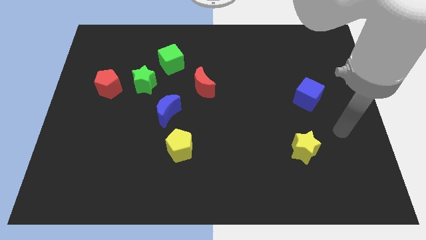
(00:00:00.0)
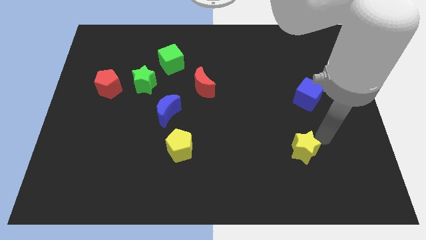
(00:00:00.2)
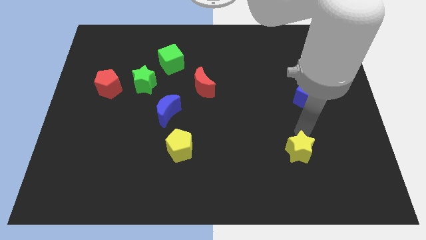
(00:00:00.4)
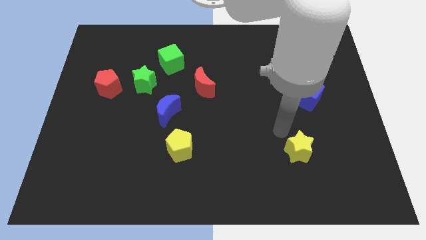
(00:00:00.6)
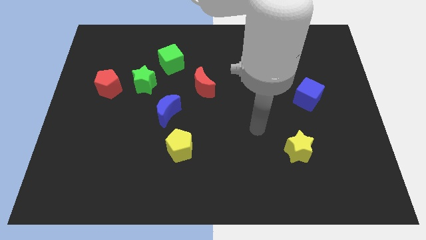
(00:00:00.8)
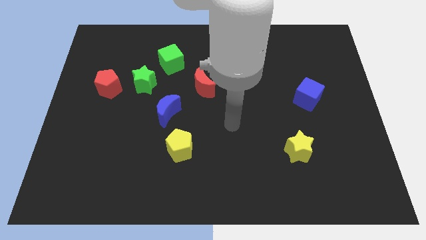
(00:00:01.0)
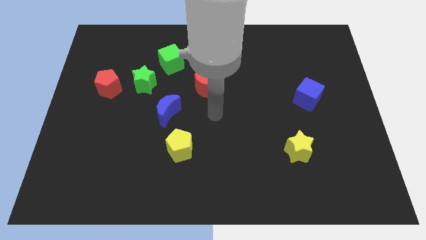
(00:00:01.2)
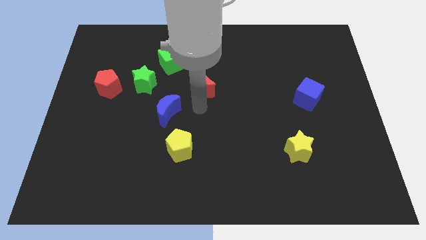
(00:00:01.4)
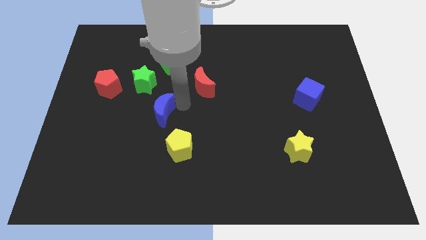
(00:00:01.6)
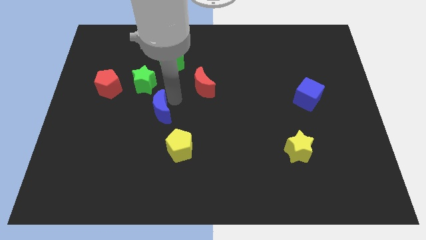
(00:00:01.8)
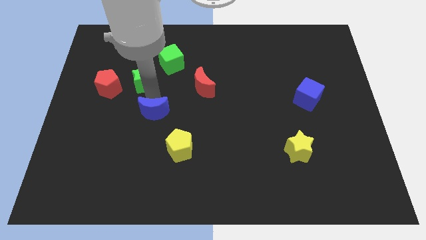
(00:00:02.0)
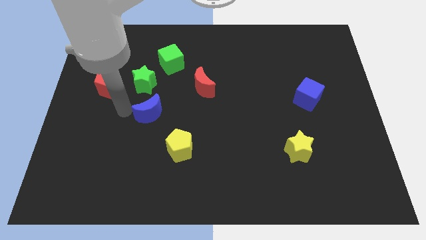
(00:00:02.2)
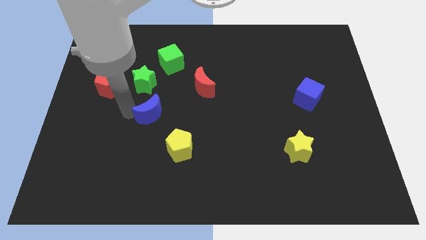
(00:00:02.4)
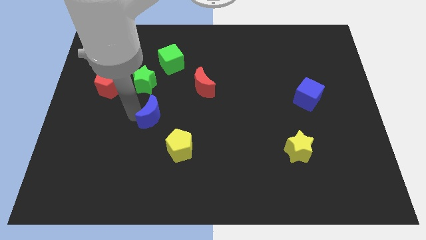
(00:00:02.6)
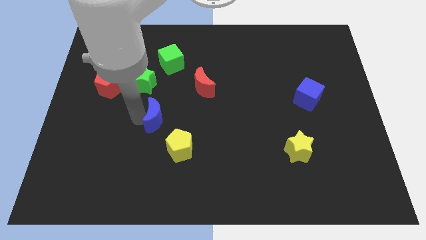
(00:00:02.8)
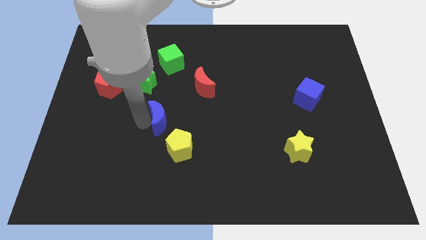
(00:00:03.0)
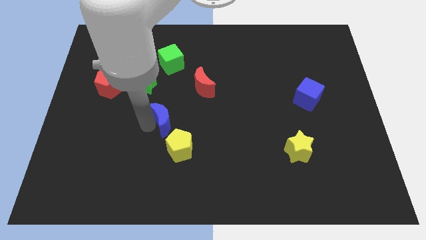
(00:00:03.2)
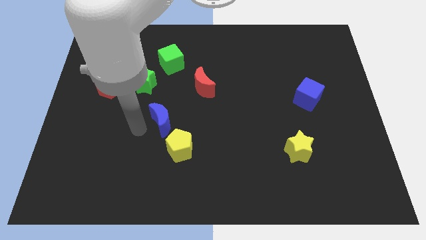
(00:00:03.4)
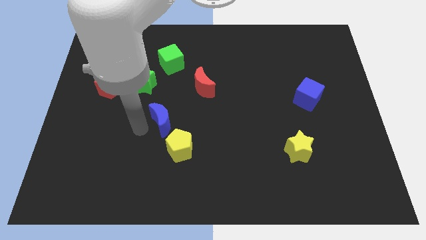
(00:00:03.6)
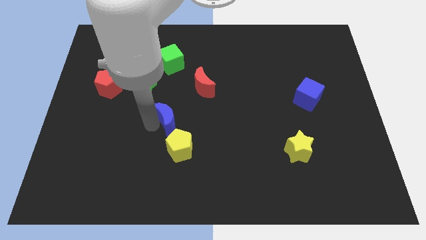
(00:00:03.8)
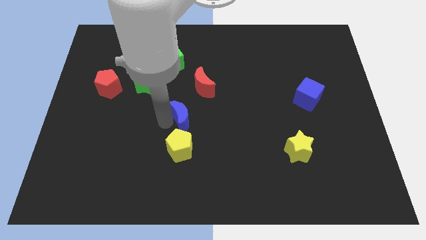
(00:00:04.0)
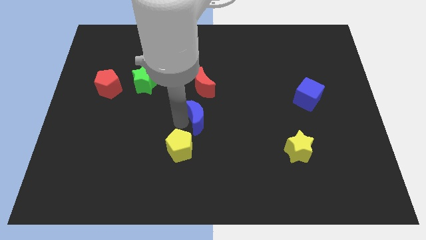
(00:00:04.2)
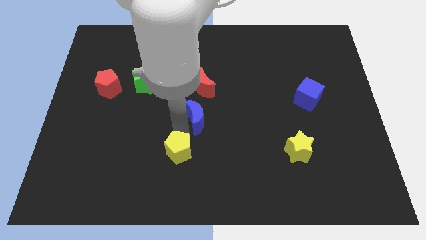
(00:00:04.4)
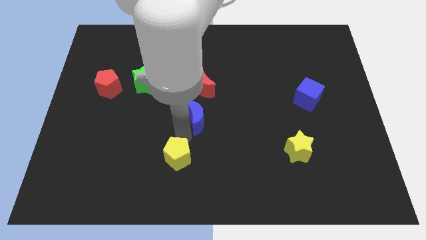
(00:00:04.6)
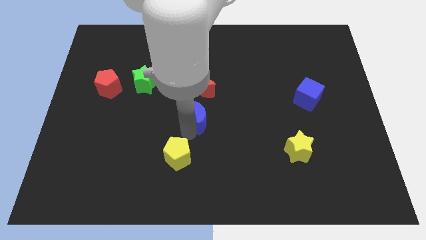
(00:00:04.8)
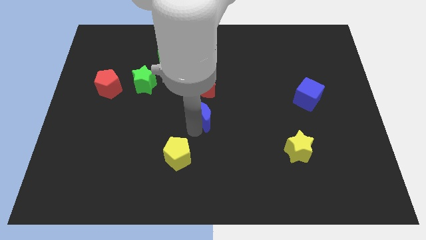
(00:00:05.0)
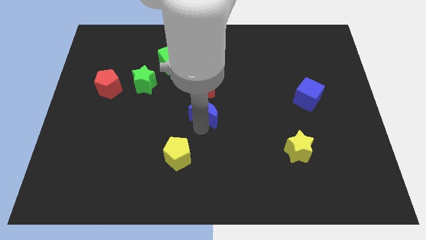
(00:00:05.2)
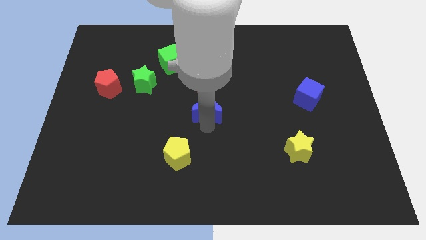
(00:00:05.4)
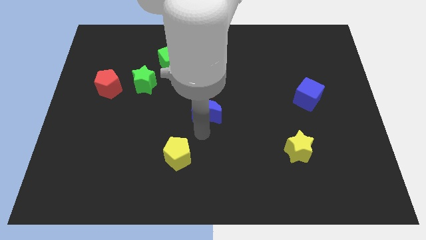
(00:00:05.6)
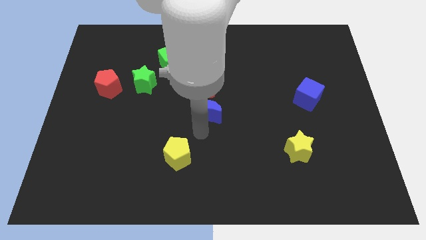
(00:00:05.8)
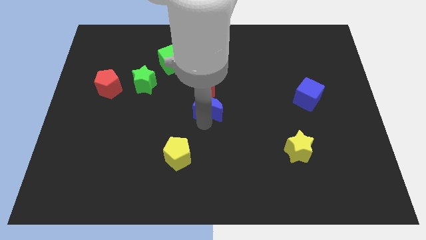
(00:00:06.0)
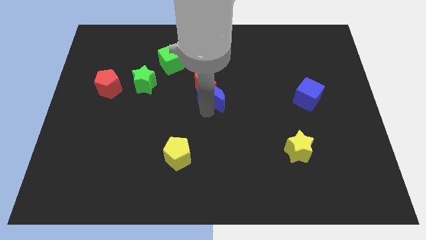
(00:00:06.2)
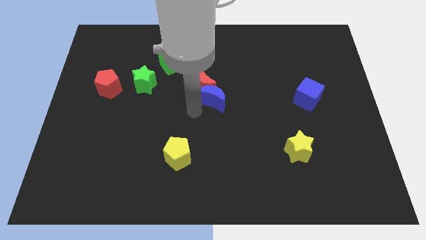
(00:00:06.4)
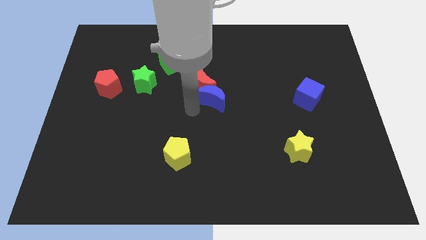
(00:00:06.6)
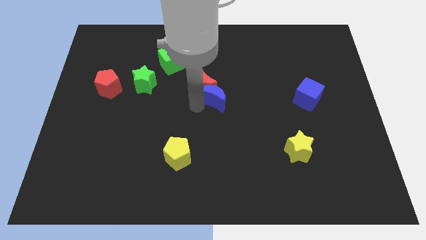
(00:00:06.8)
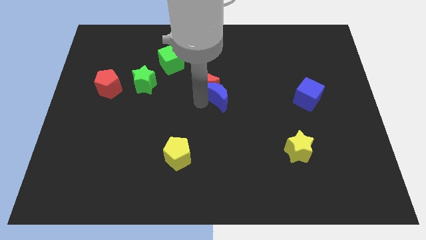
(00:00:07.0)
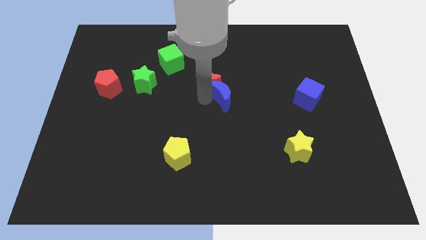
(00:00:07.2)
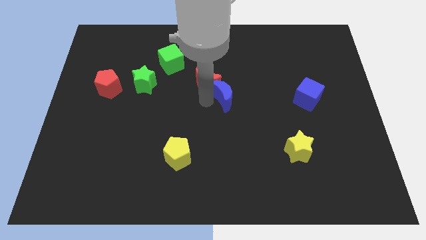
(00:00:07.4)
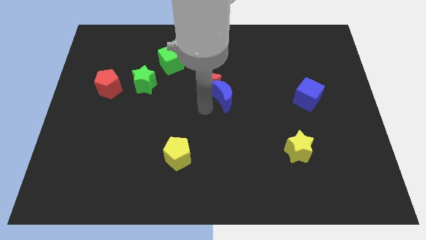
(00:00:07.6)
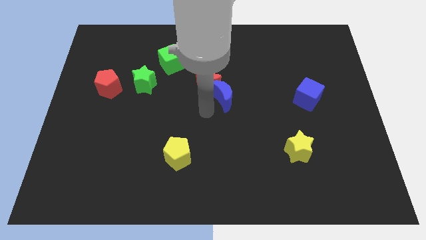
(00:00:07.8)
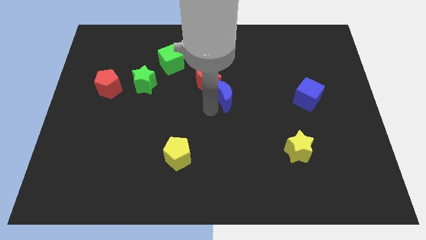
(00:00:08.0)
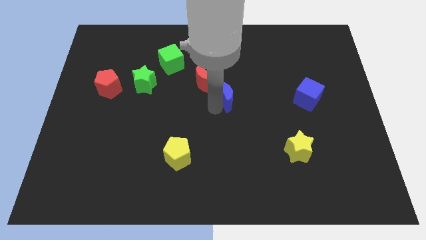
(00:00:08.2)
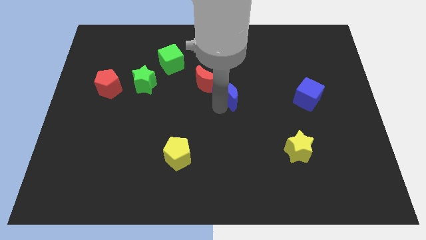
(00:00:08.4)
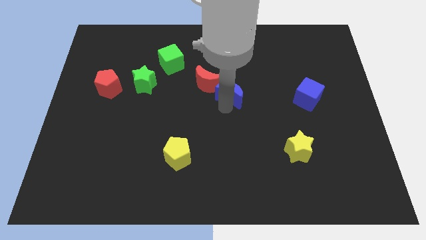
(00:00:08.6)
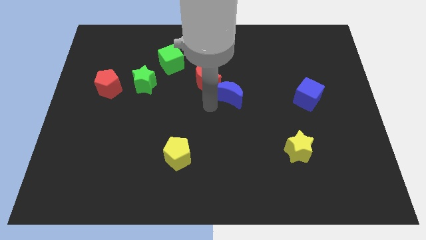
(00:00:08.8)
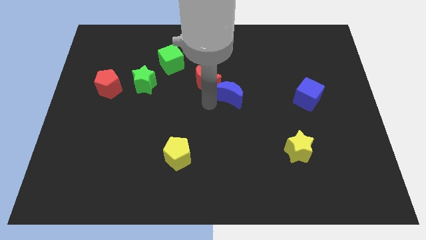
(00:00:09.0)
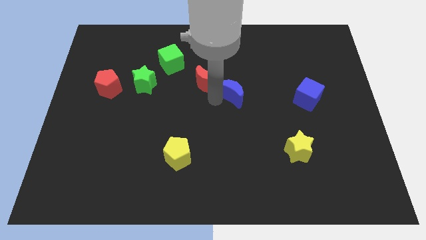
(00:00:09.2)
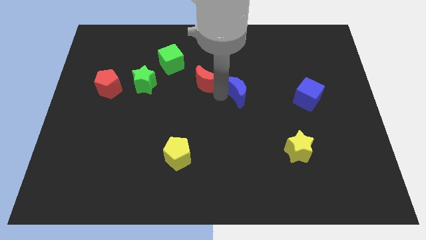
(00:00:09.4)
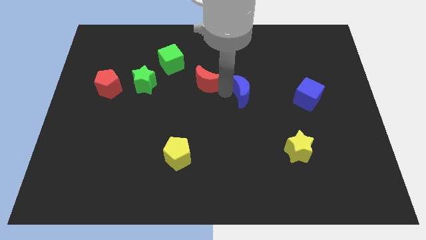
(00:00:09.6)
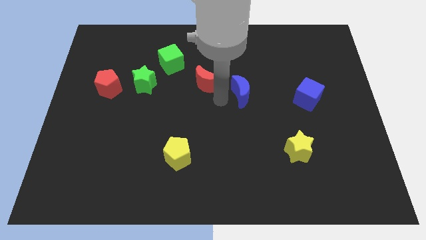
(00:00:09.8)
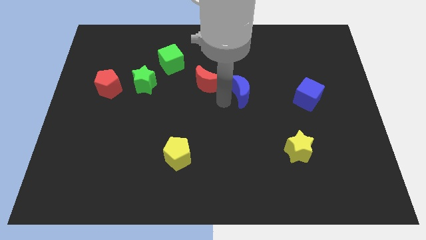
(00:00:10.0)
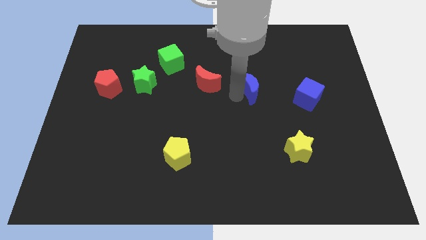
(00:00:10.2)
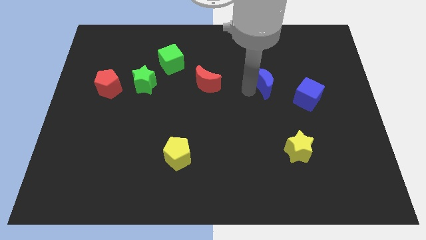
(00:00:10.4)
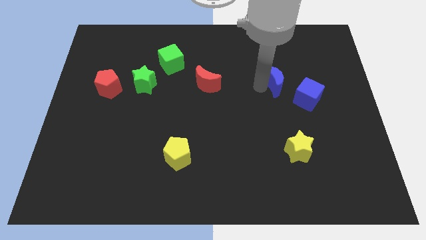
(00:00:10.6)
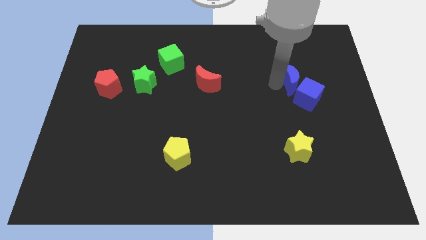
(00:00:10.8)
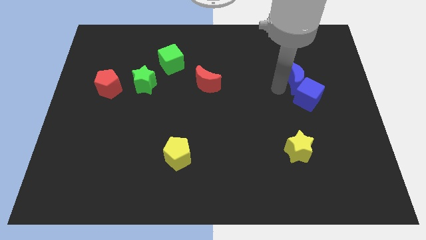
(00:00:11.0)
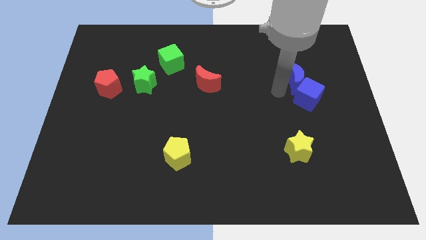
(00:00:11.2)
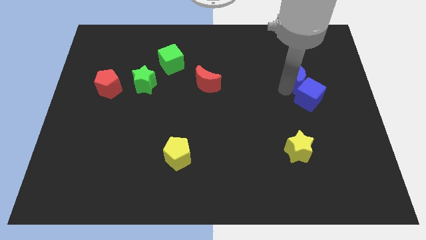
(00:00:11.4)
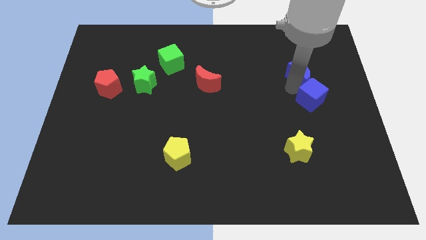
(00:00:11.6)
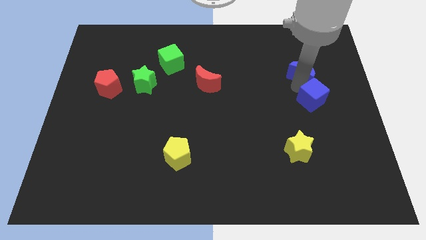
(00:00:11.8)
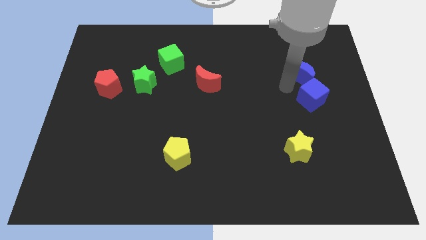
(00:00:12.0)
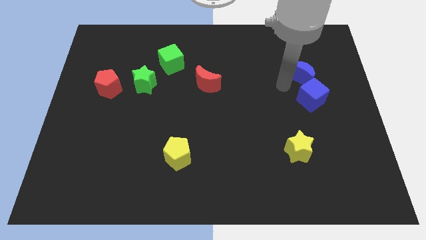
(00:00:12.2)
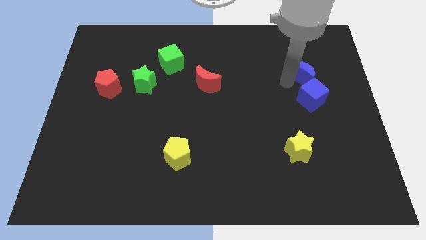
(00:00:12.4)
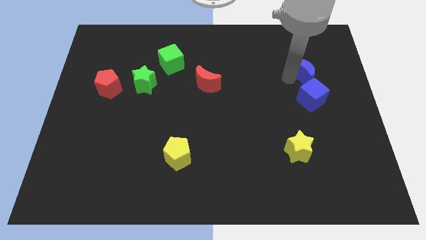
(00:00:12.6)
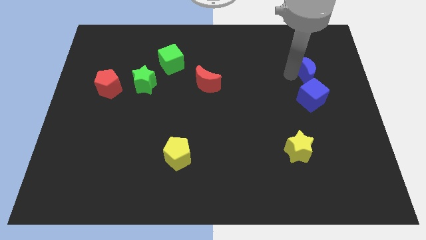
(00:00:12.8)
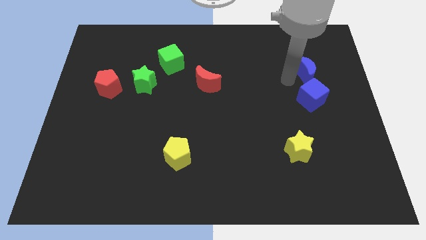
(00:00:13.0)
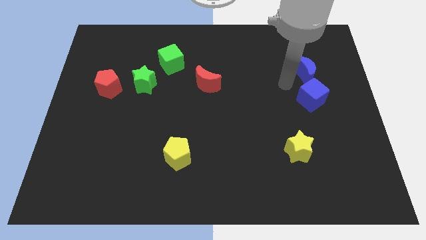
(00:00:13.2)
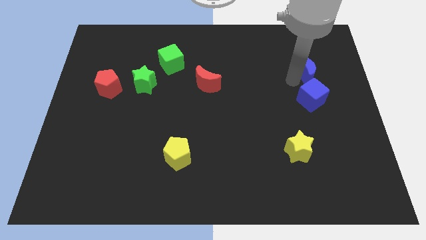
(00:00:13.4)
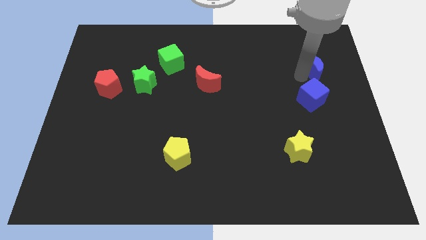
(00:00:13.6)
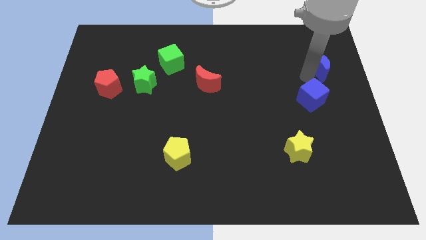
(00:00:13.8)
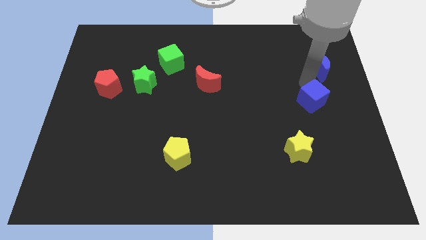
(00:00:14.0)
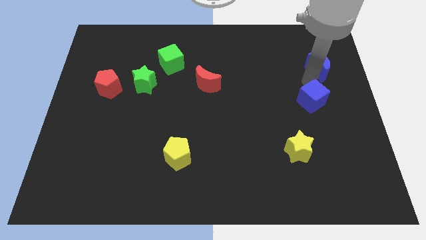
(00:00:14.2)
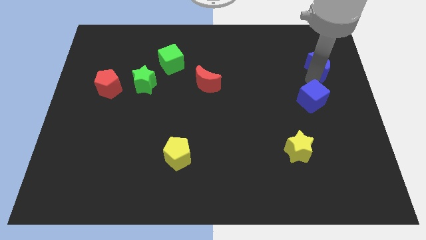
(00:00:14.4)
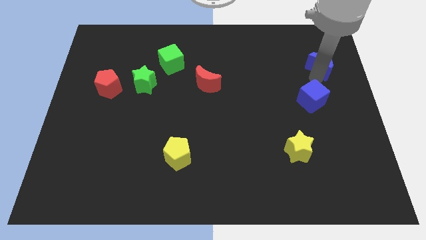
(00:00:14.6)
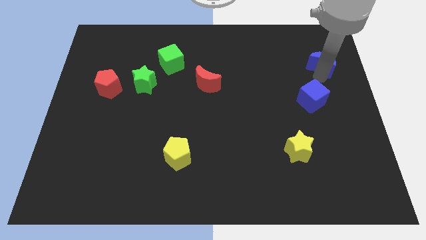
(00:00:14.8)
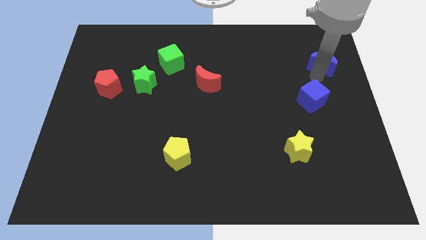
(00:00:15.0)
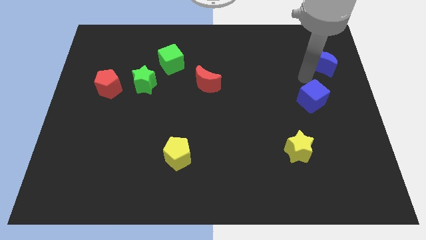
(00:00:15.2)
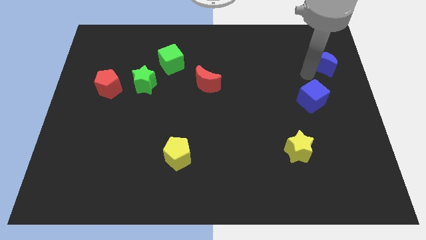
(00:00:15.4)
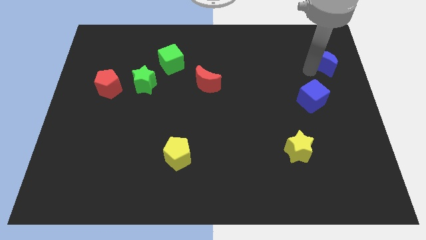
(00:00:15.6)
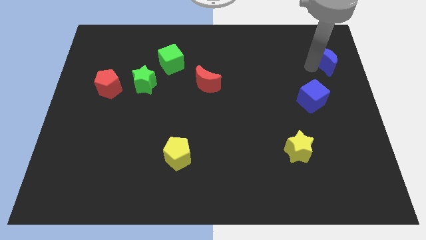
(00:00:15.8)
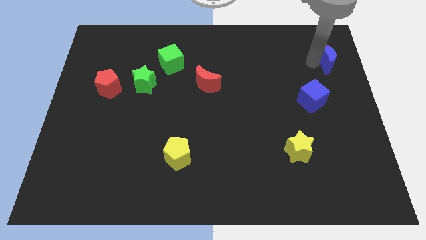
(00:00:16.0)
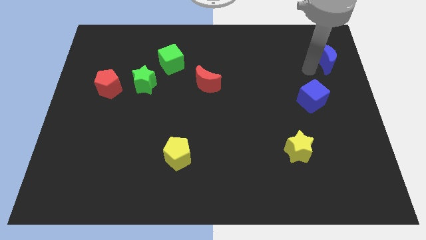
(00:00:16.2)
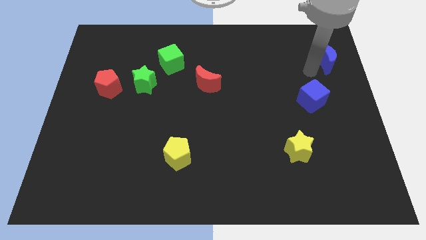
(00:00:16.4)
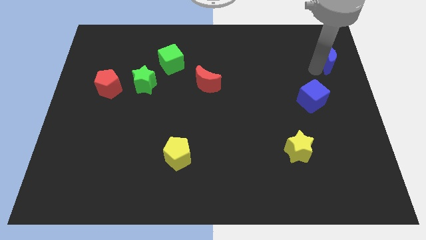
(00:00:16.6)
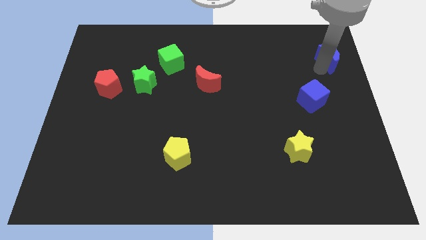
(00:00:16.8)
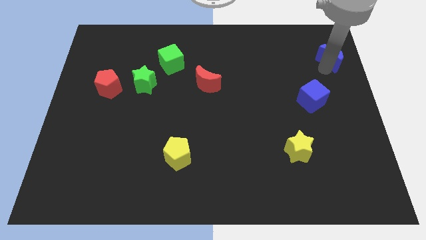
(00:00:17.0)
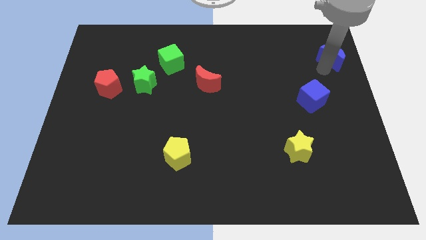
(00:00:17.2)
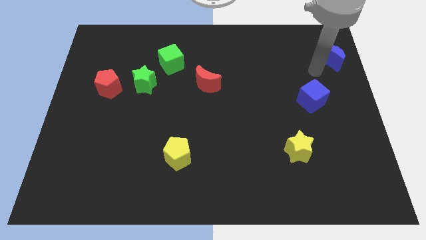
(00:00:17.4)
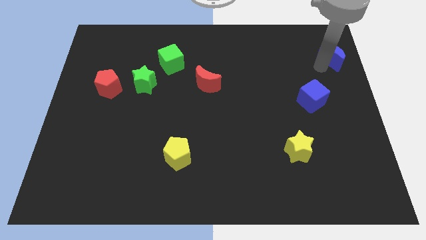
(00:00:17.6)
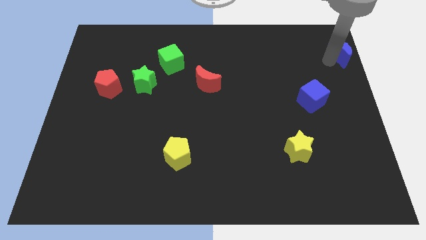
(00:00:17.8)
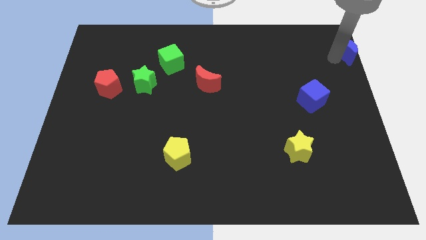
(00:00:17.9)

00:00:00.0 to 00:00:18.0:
put the blue moon to the upper right corner
